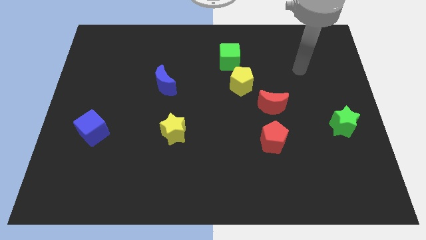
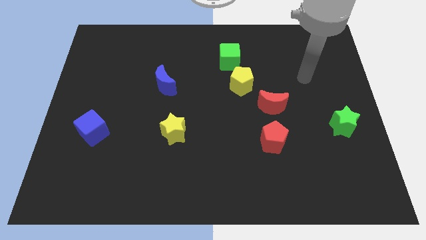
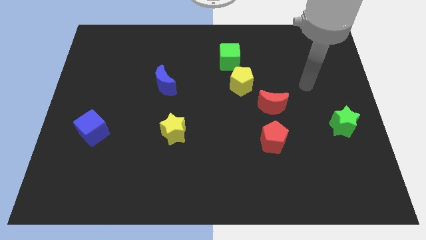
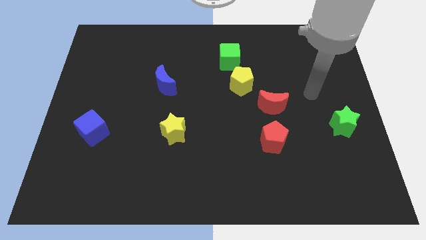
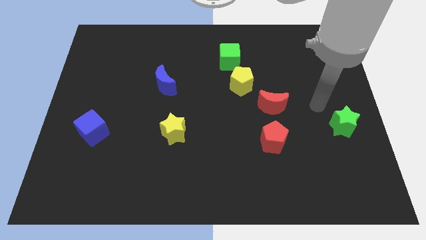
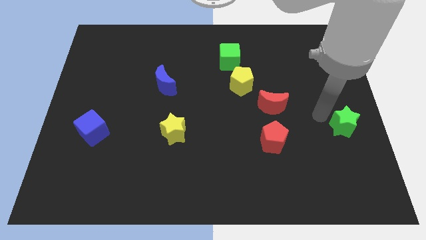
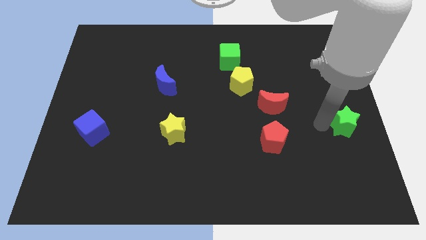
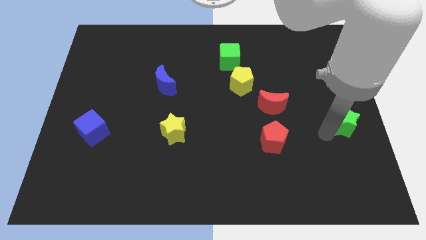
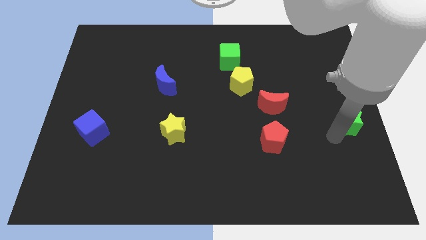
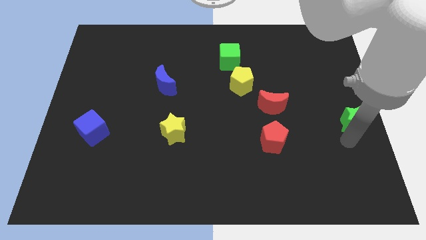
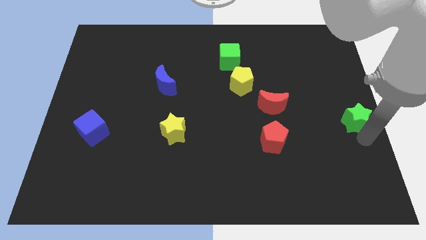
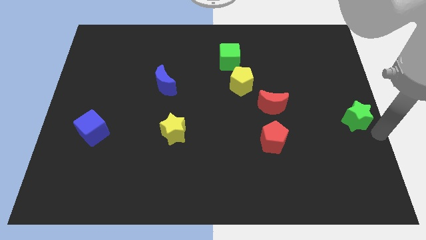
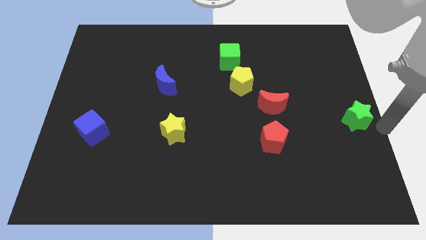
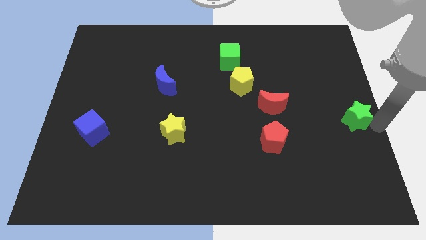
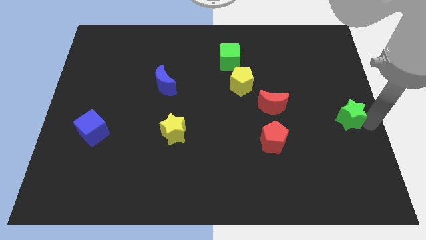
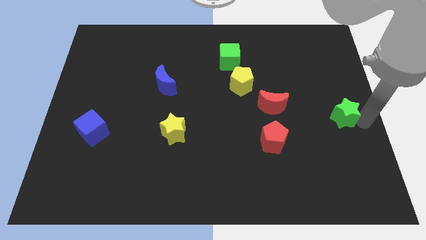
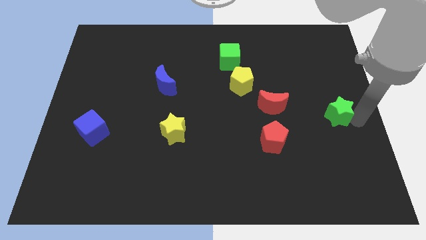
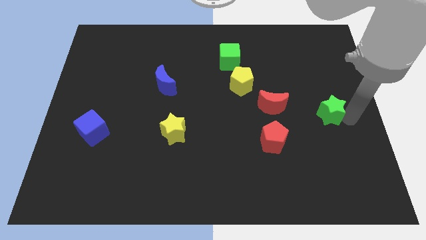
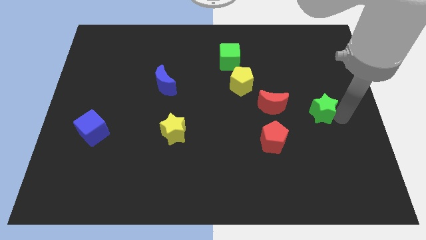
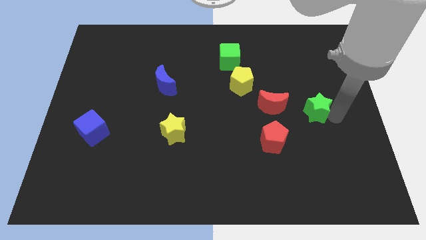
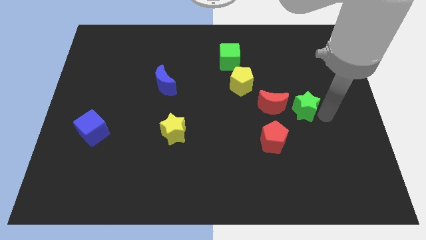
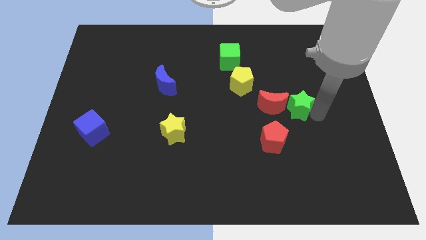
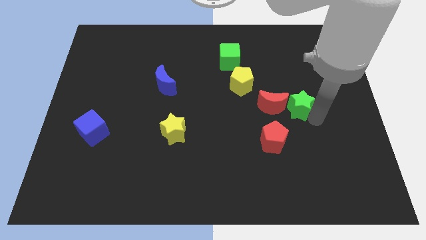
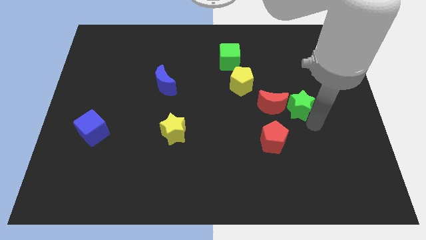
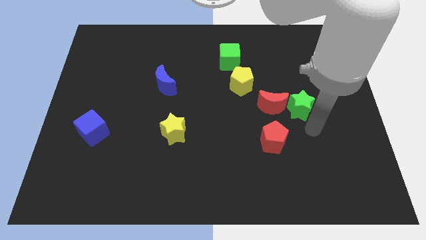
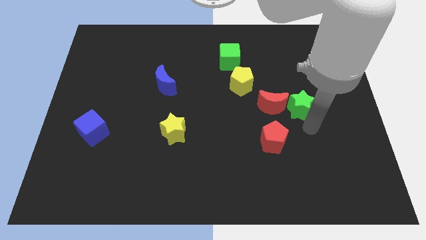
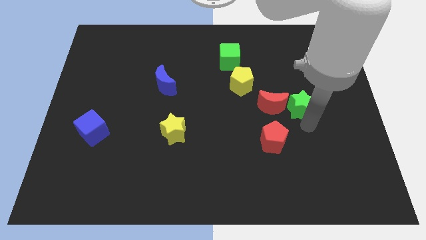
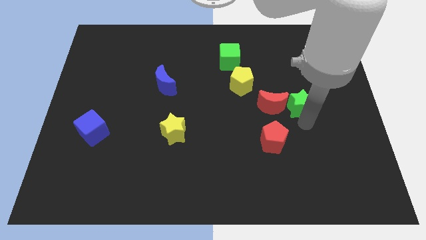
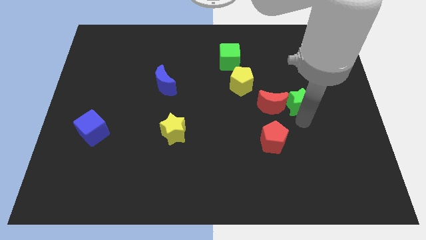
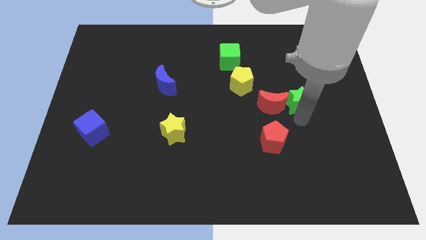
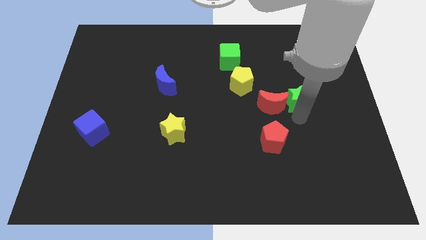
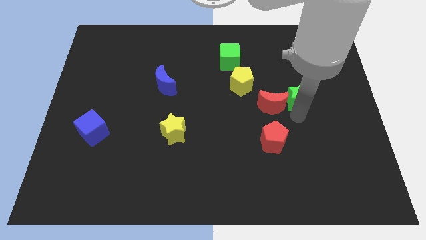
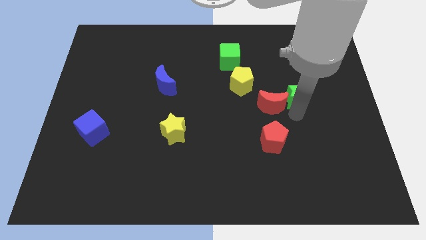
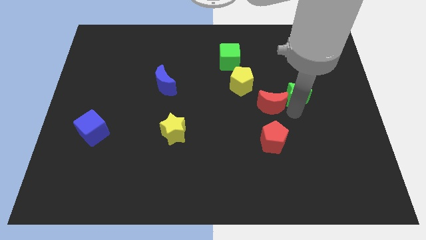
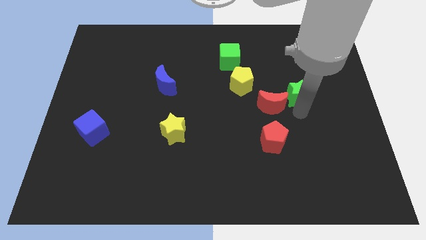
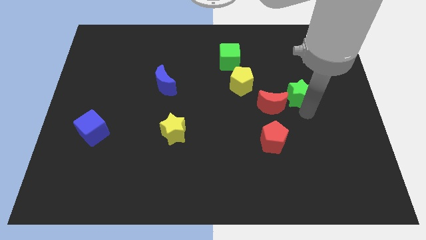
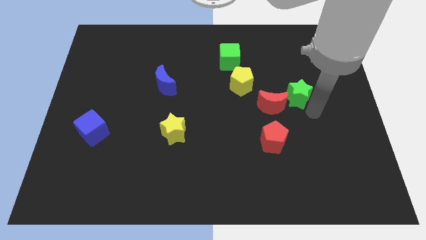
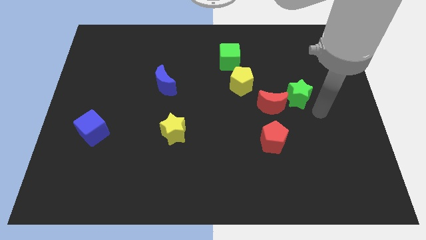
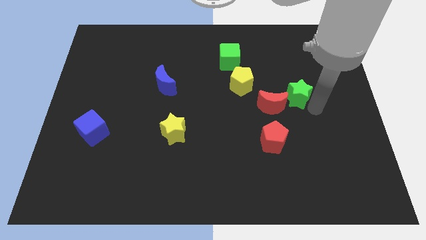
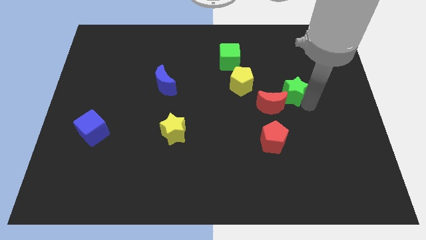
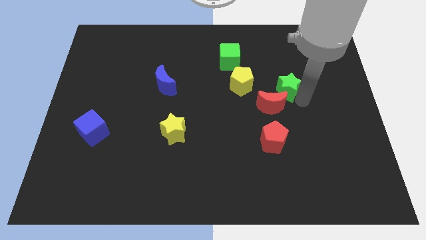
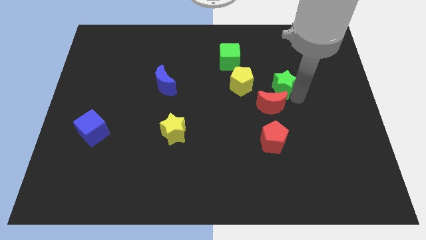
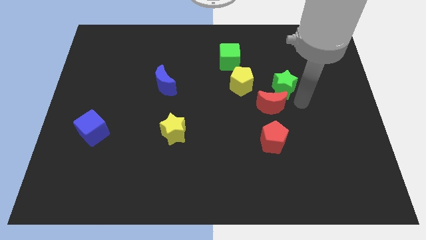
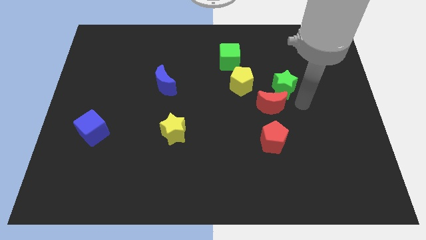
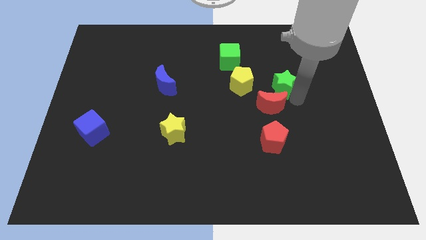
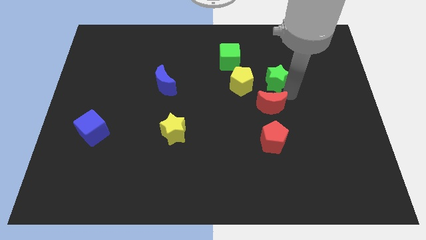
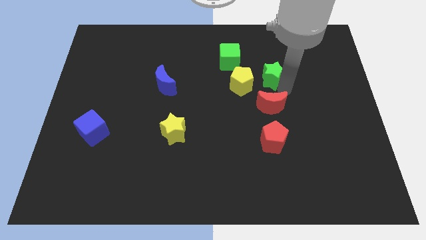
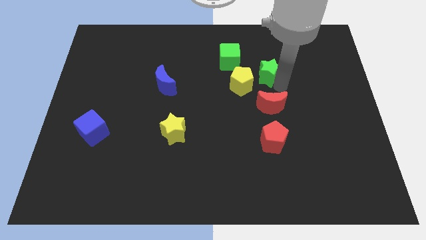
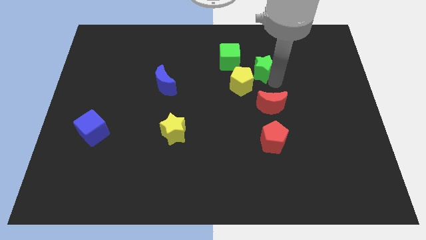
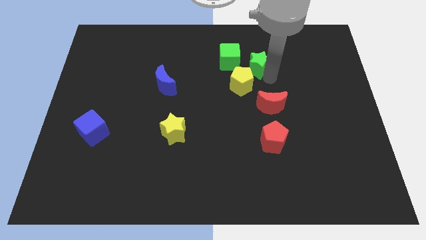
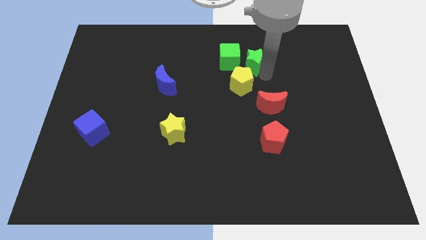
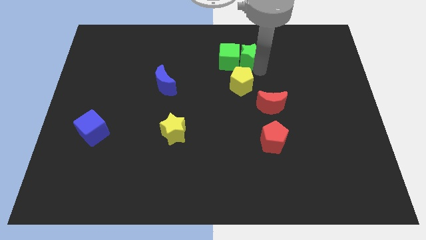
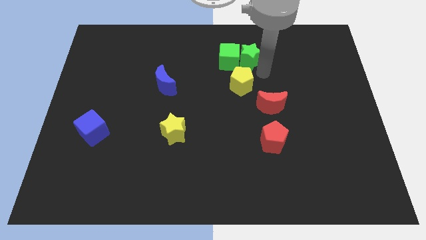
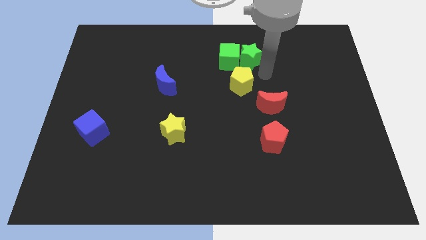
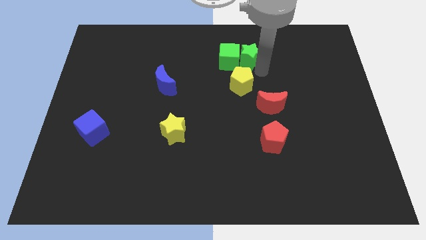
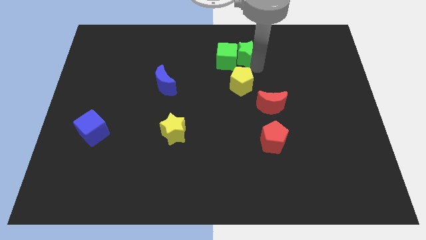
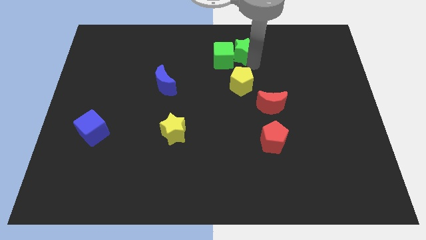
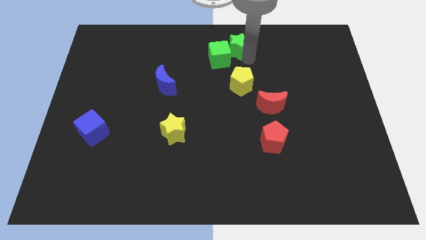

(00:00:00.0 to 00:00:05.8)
slide the green star to the top
